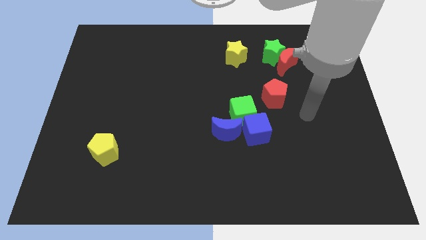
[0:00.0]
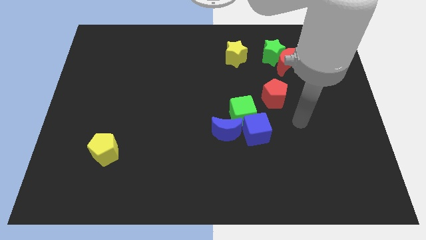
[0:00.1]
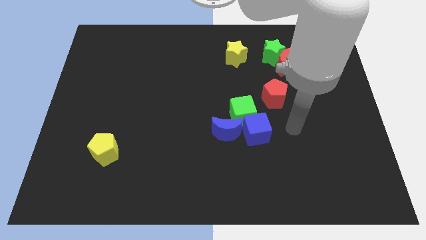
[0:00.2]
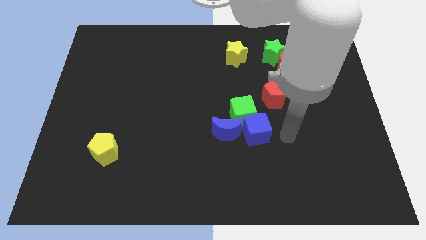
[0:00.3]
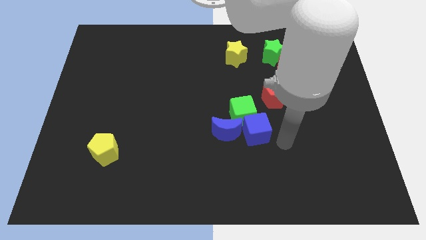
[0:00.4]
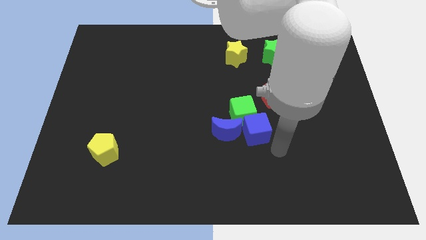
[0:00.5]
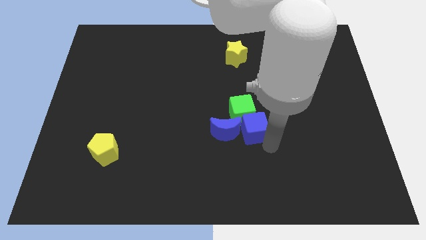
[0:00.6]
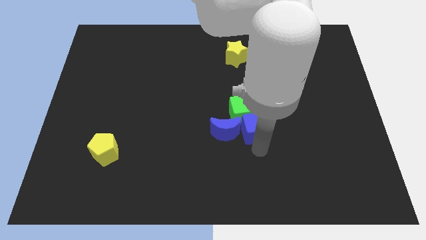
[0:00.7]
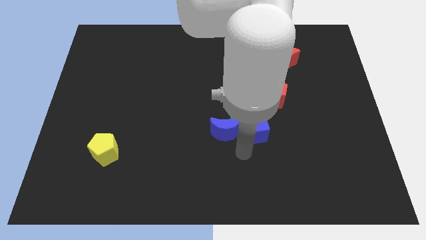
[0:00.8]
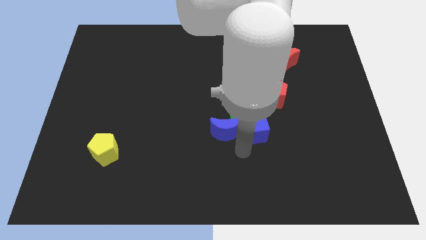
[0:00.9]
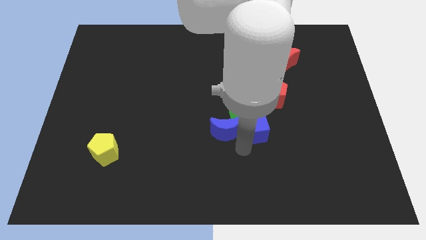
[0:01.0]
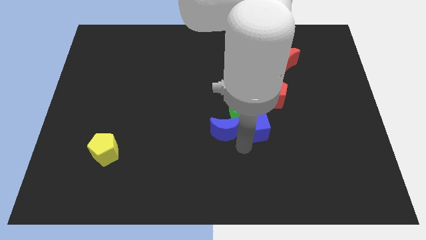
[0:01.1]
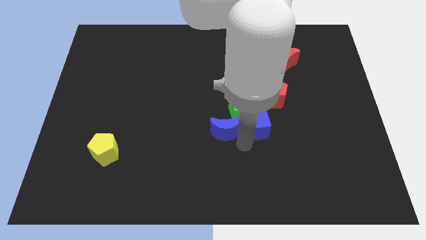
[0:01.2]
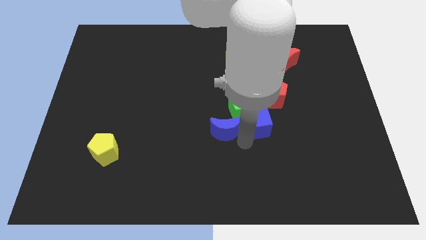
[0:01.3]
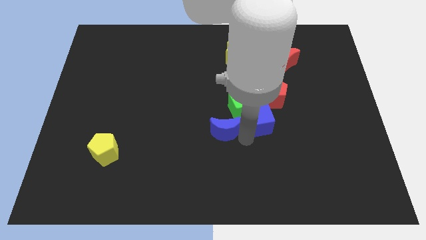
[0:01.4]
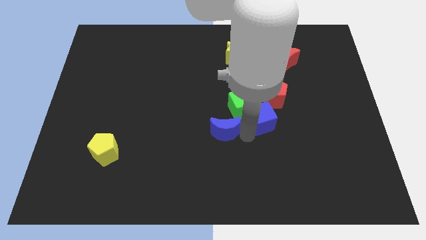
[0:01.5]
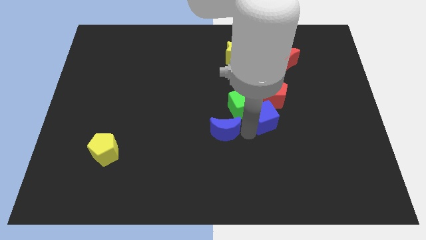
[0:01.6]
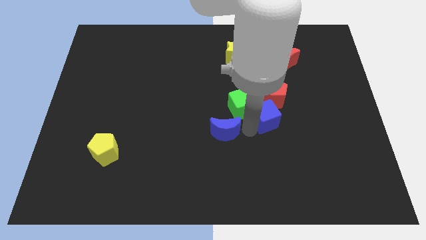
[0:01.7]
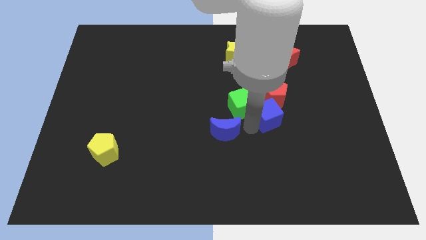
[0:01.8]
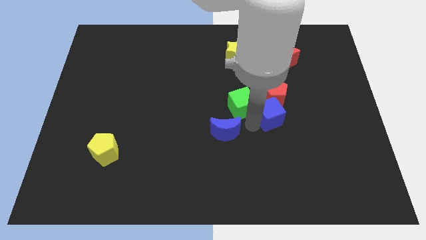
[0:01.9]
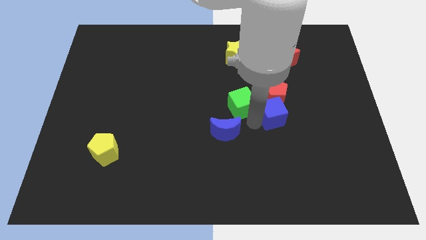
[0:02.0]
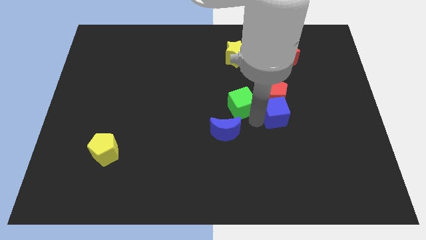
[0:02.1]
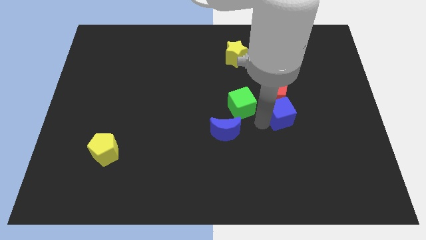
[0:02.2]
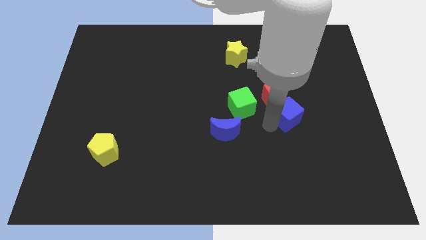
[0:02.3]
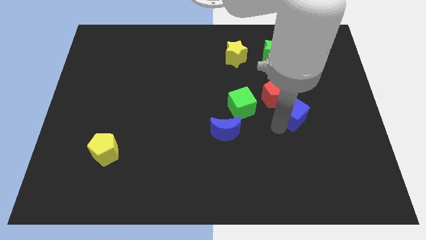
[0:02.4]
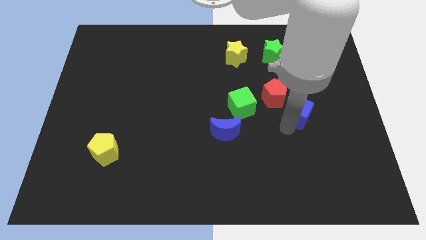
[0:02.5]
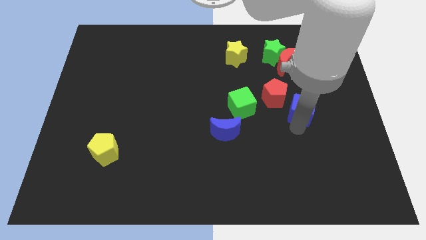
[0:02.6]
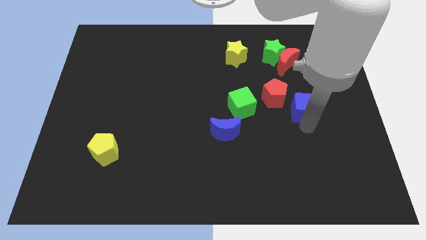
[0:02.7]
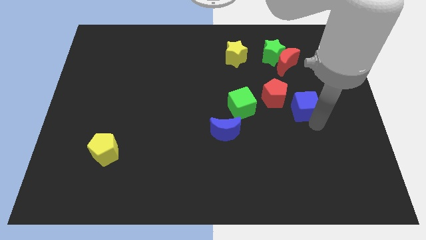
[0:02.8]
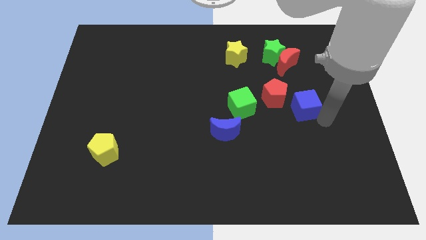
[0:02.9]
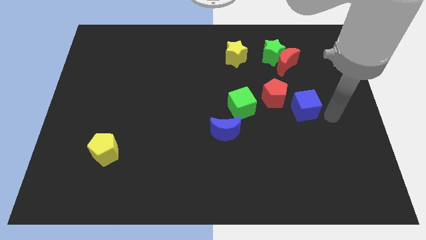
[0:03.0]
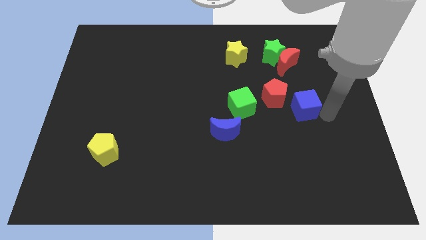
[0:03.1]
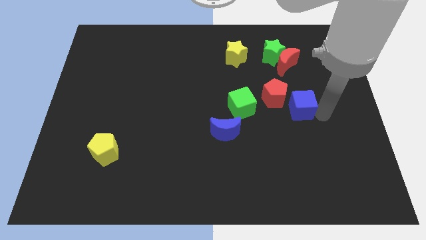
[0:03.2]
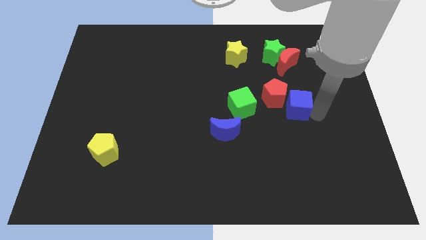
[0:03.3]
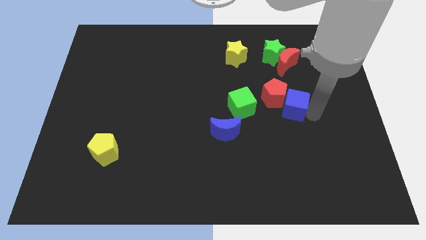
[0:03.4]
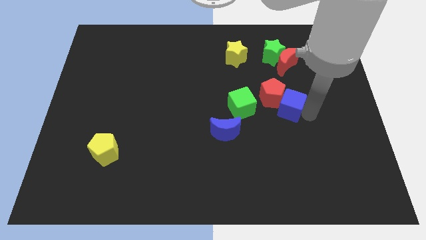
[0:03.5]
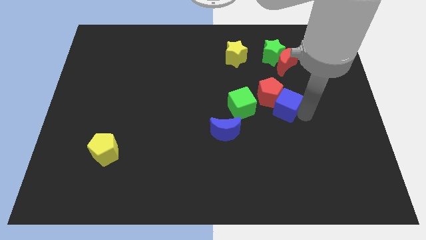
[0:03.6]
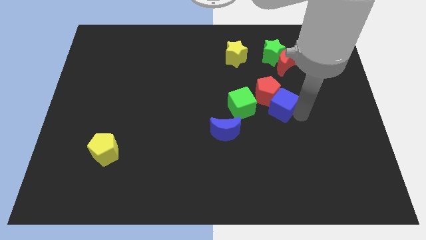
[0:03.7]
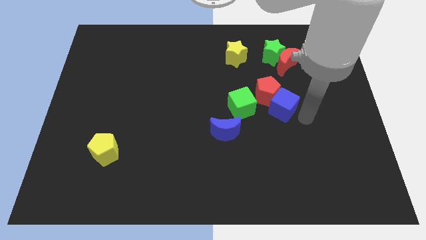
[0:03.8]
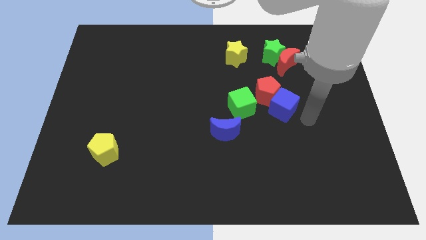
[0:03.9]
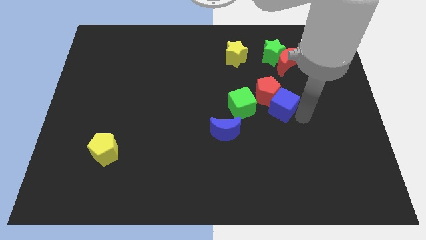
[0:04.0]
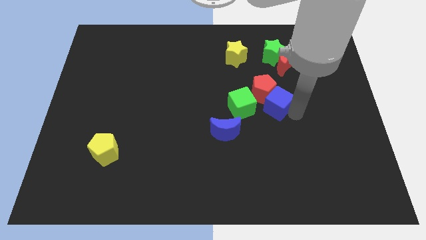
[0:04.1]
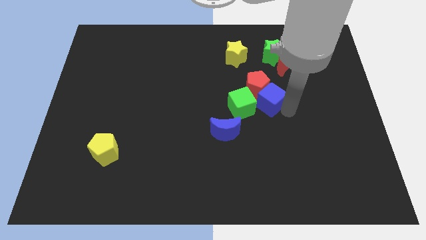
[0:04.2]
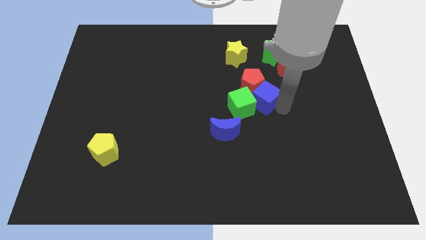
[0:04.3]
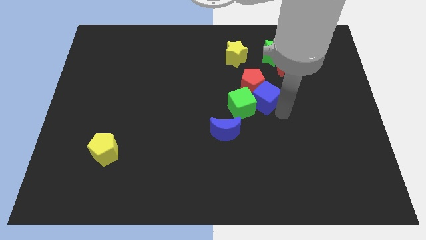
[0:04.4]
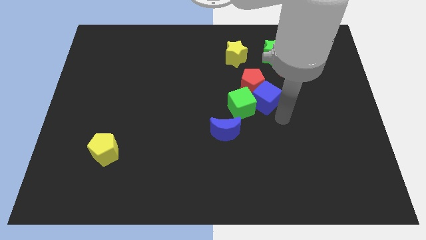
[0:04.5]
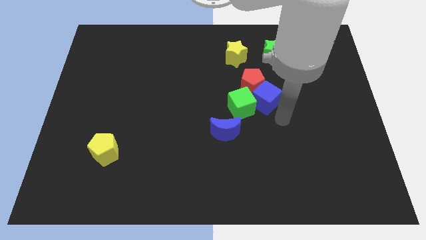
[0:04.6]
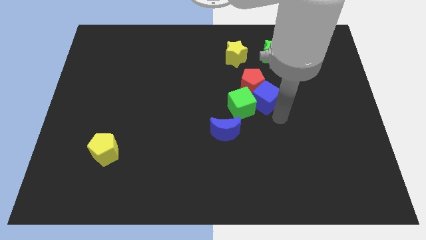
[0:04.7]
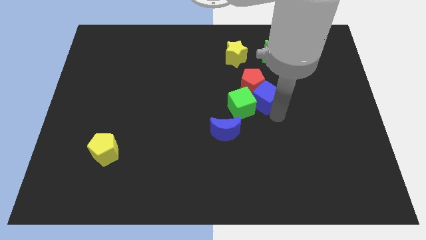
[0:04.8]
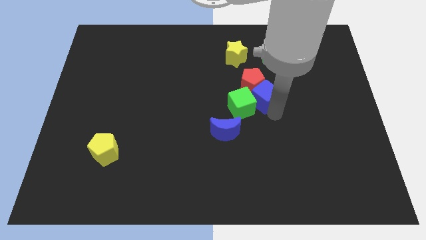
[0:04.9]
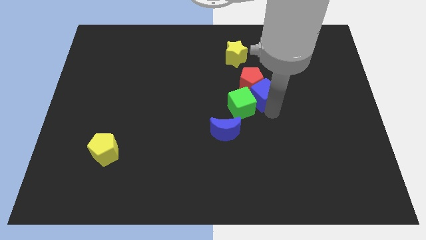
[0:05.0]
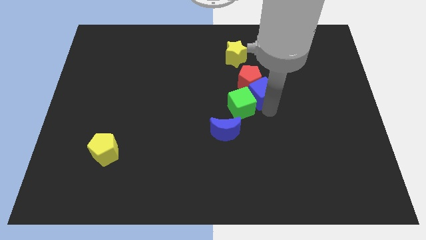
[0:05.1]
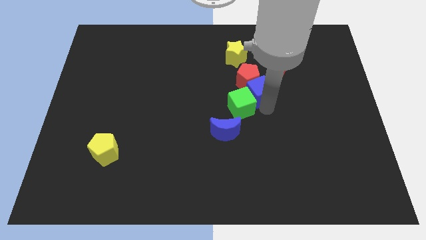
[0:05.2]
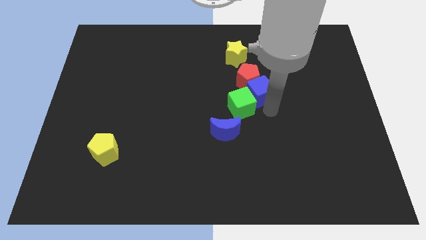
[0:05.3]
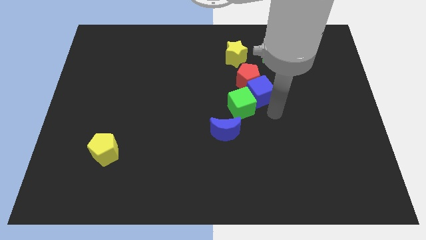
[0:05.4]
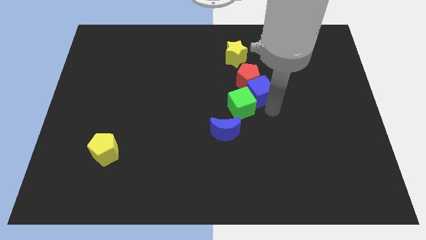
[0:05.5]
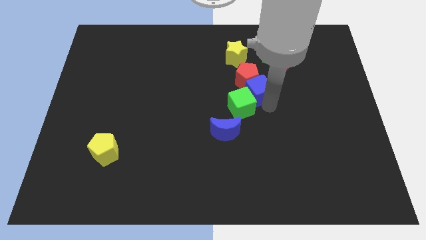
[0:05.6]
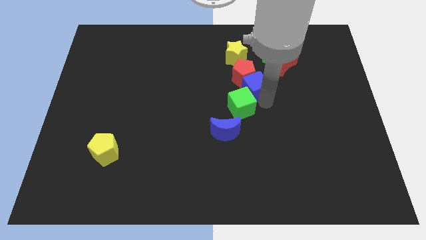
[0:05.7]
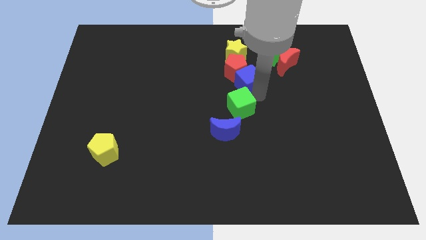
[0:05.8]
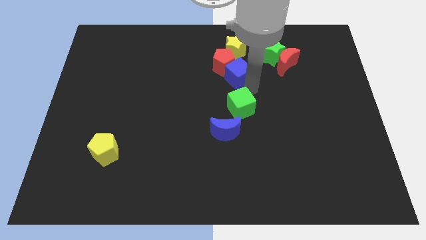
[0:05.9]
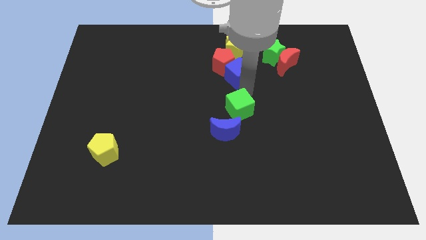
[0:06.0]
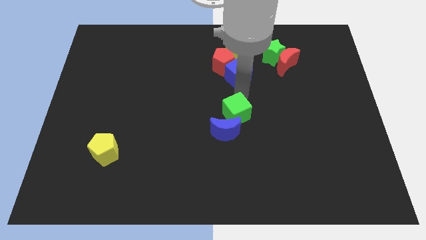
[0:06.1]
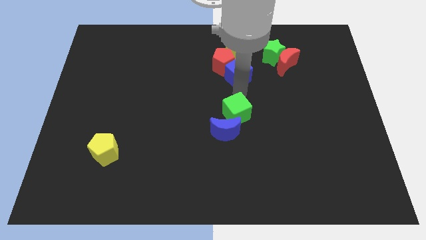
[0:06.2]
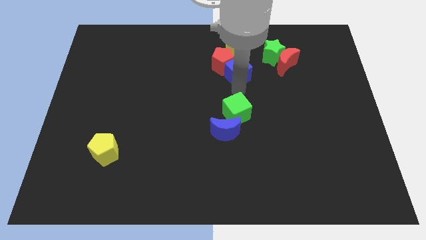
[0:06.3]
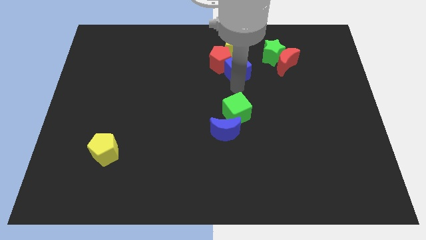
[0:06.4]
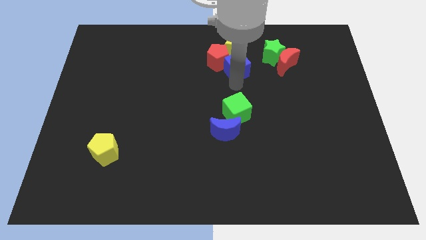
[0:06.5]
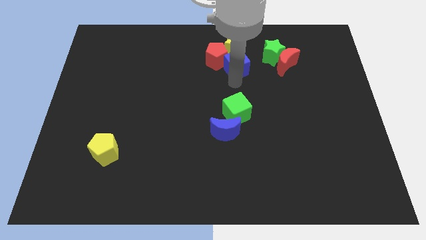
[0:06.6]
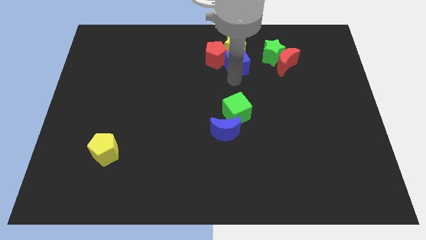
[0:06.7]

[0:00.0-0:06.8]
slide the blue cube close to the yellow star

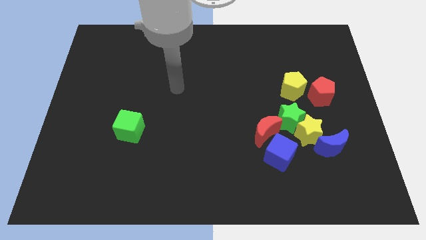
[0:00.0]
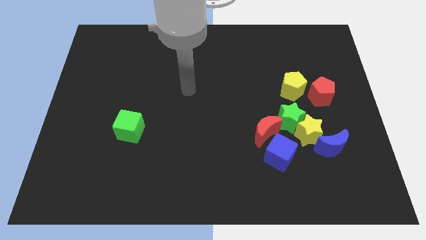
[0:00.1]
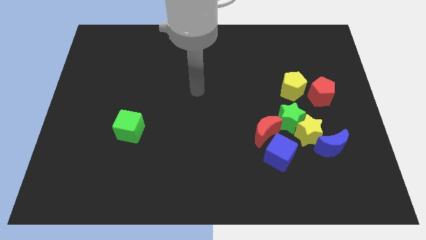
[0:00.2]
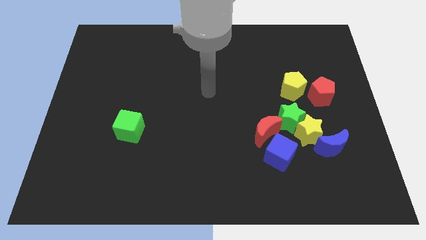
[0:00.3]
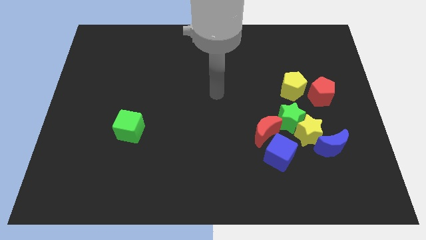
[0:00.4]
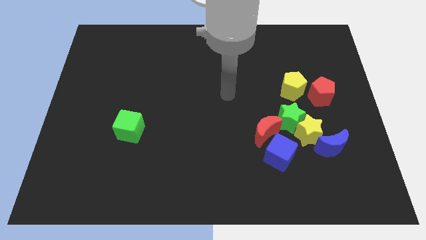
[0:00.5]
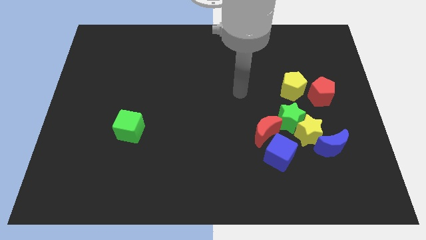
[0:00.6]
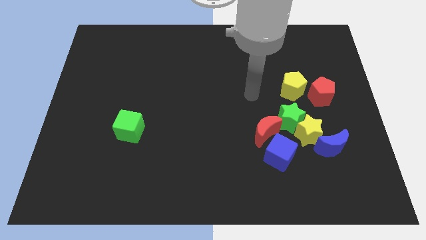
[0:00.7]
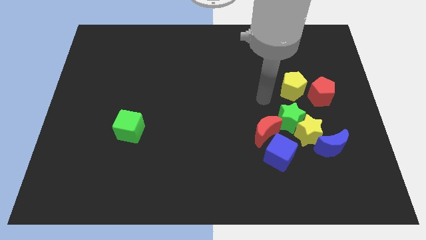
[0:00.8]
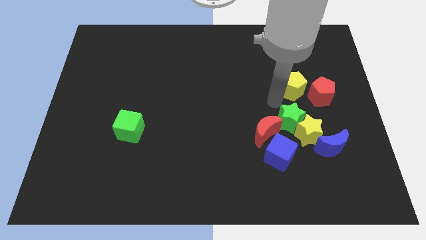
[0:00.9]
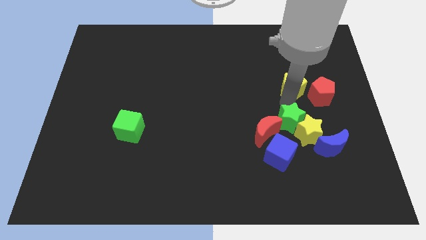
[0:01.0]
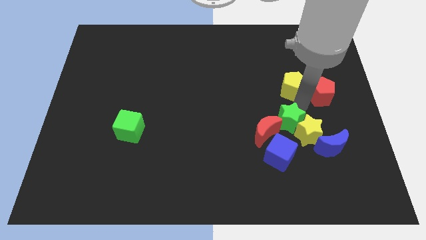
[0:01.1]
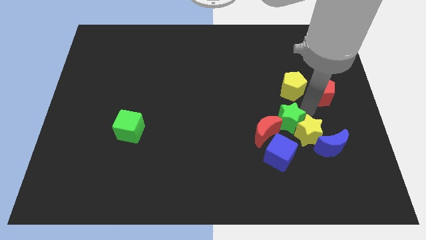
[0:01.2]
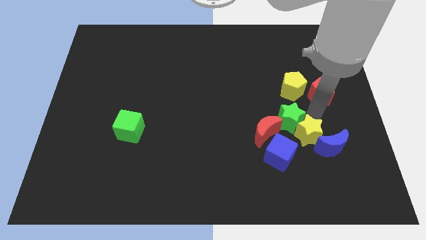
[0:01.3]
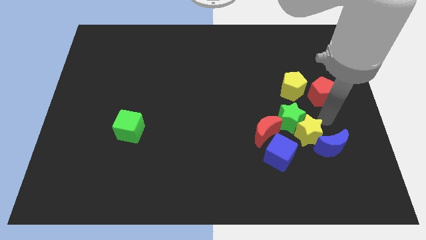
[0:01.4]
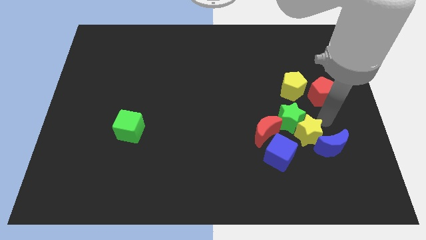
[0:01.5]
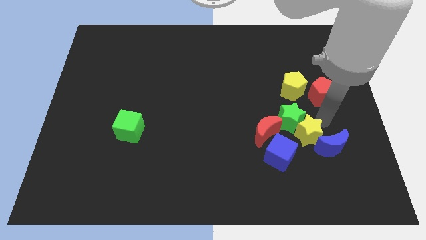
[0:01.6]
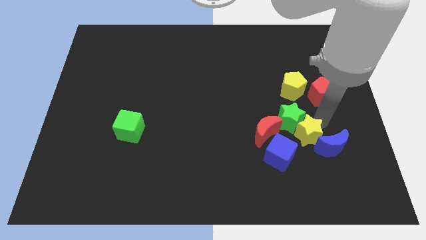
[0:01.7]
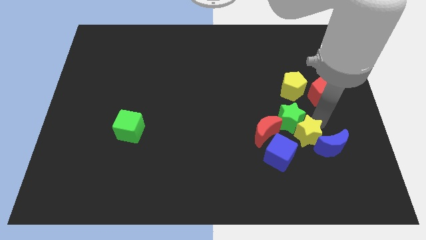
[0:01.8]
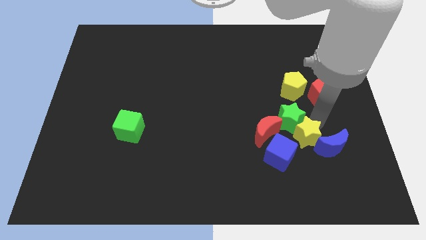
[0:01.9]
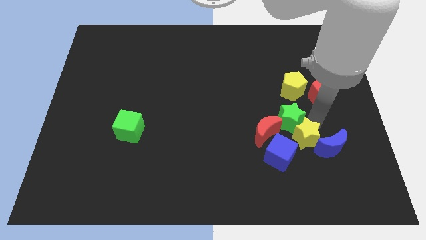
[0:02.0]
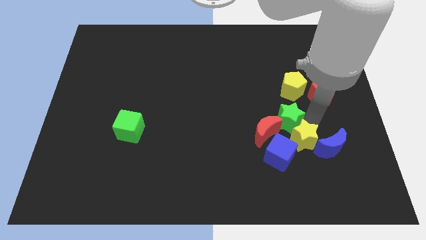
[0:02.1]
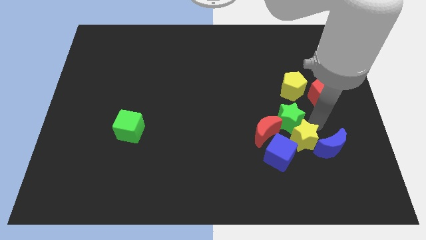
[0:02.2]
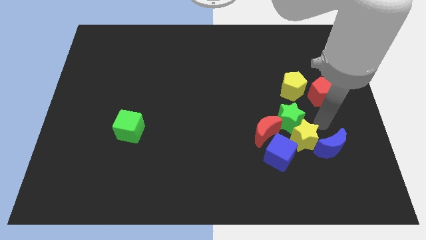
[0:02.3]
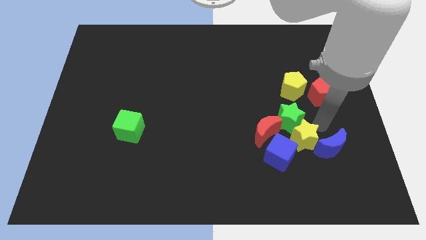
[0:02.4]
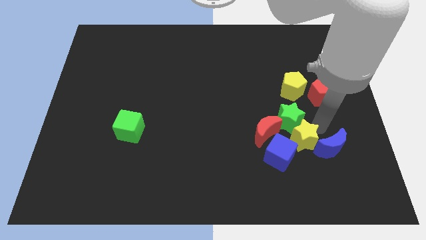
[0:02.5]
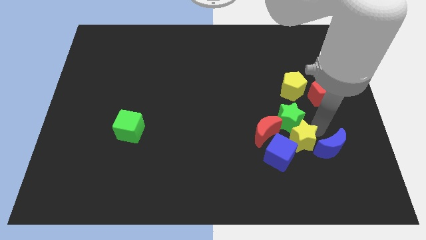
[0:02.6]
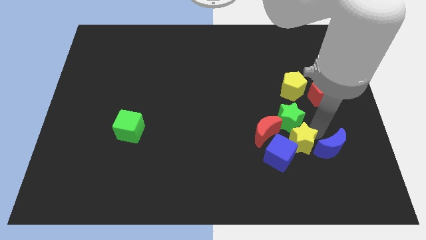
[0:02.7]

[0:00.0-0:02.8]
move the yellow star towards the blue cube
